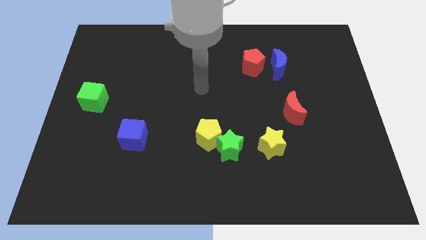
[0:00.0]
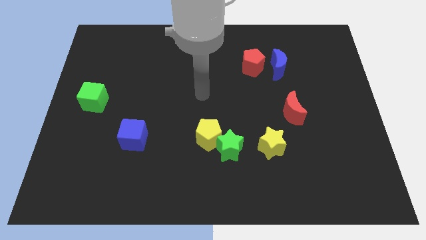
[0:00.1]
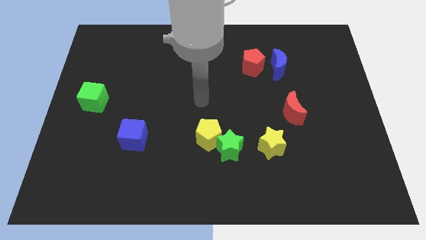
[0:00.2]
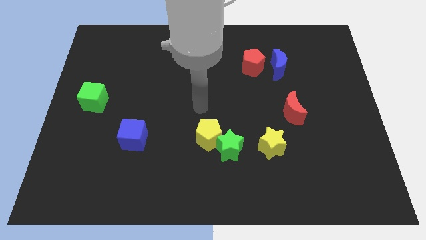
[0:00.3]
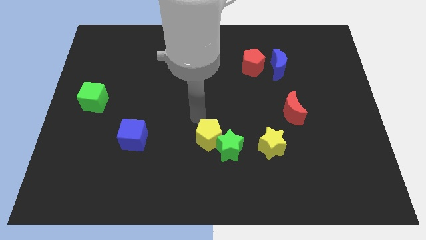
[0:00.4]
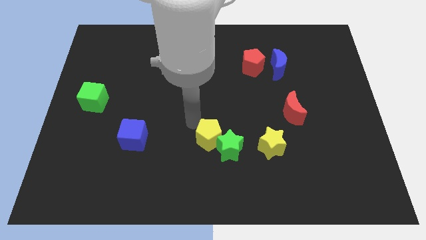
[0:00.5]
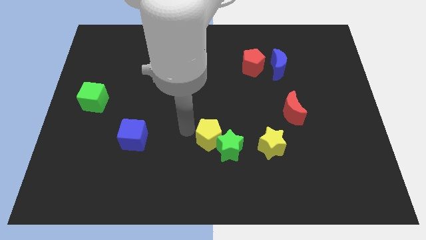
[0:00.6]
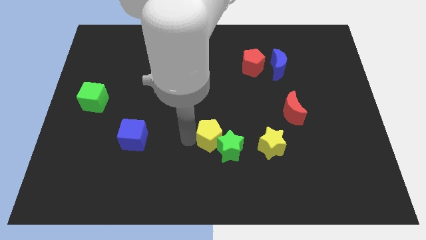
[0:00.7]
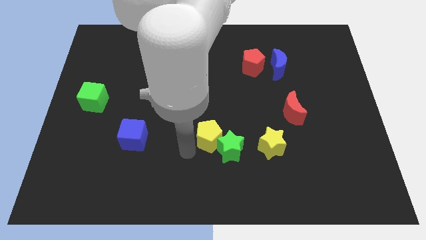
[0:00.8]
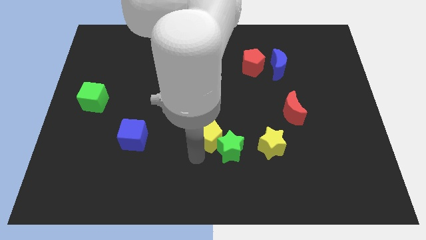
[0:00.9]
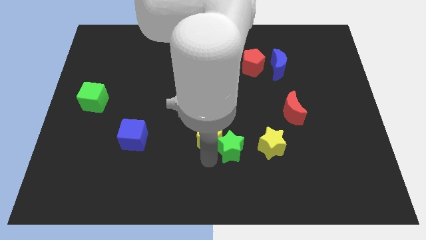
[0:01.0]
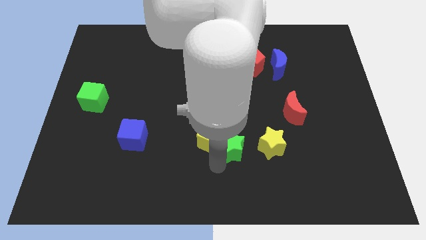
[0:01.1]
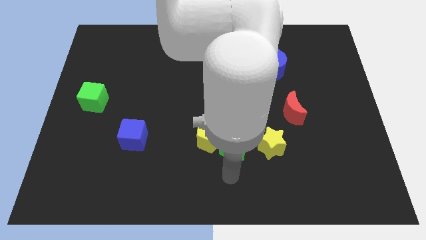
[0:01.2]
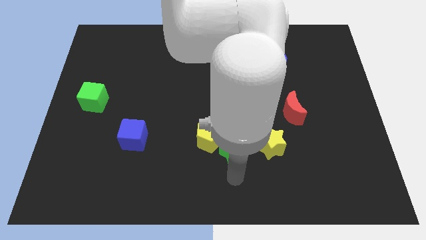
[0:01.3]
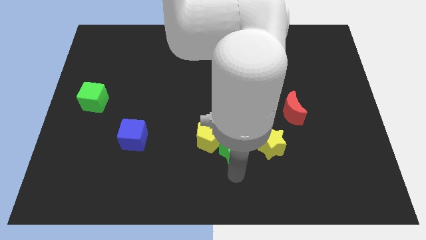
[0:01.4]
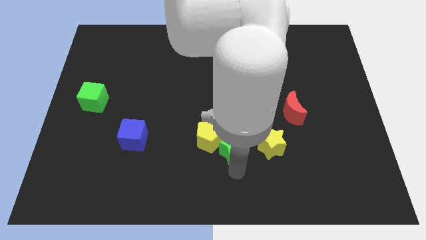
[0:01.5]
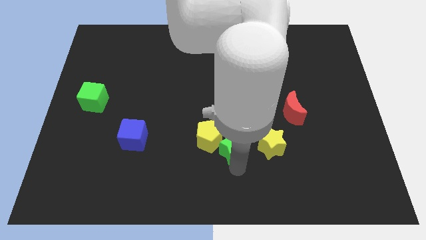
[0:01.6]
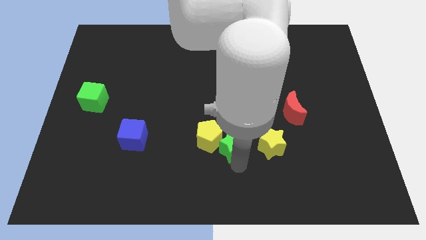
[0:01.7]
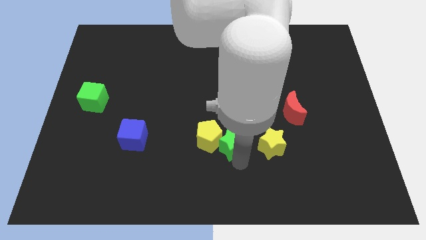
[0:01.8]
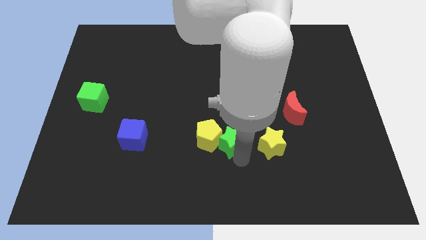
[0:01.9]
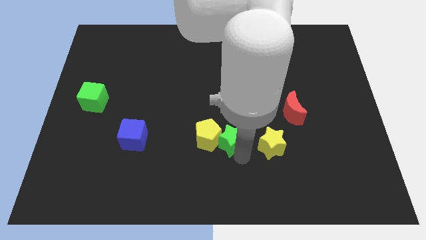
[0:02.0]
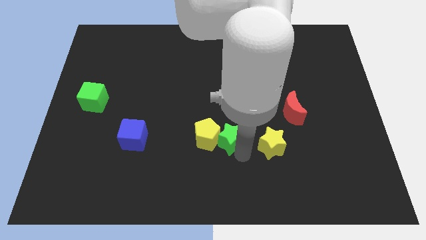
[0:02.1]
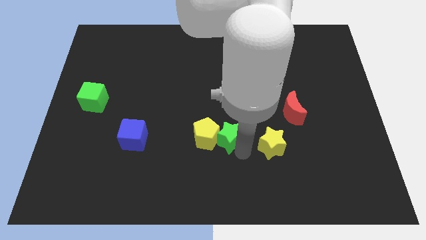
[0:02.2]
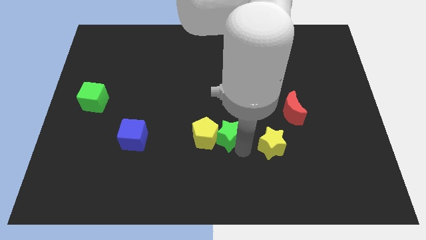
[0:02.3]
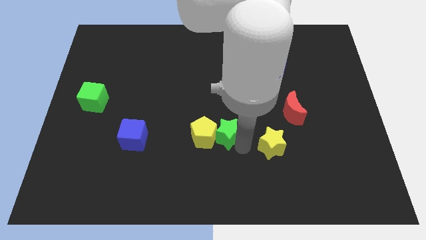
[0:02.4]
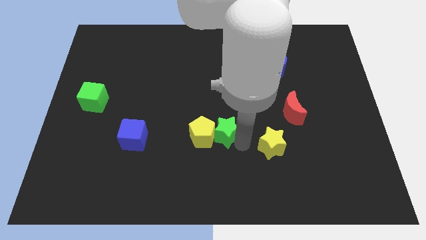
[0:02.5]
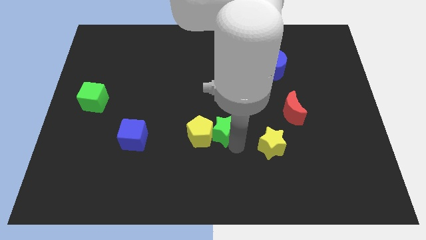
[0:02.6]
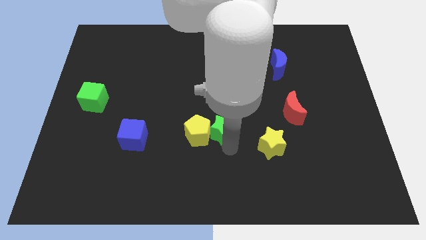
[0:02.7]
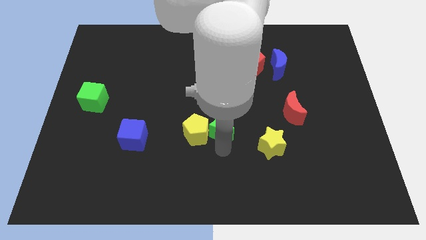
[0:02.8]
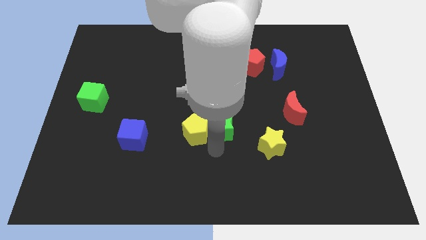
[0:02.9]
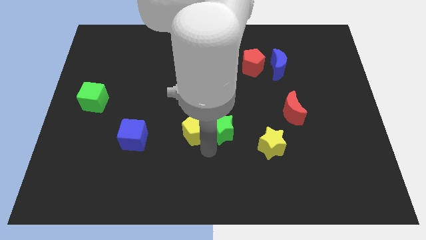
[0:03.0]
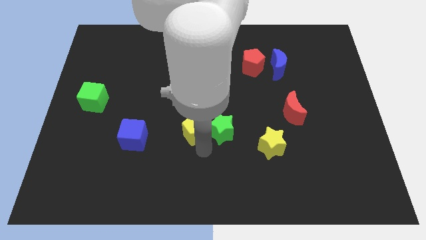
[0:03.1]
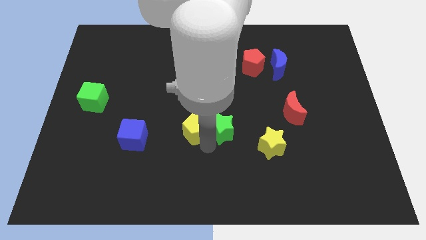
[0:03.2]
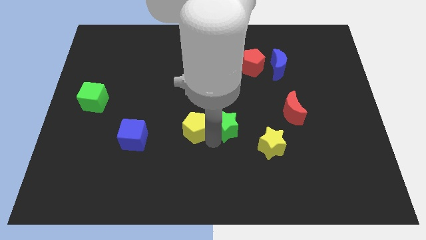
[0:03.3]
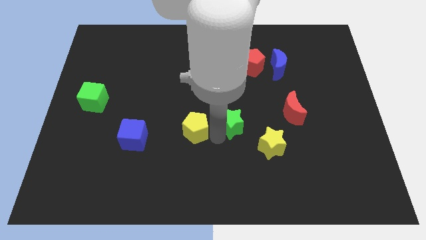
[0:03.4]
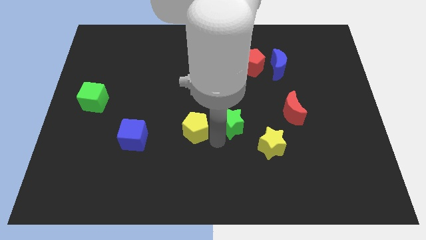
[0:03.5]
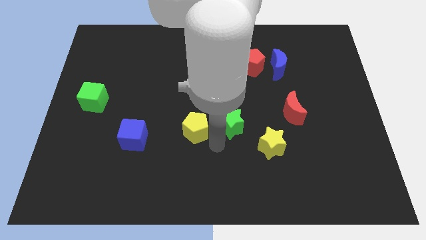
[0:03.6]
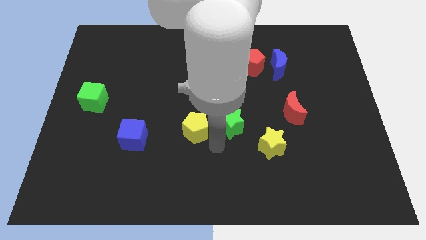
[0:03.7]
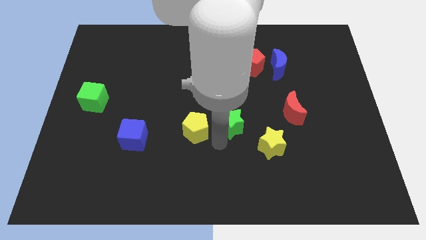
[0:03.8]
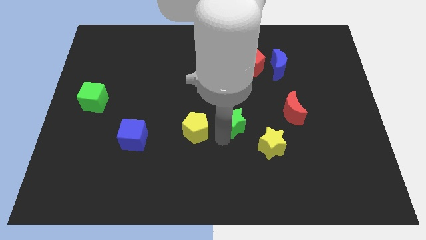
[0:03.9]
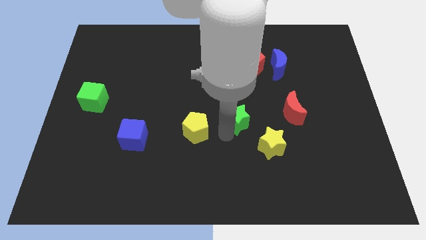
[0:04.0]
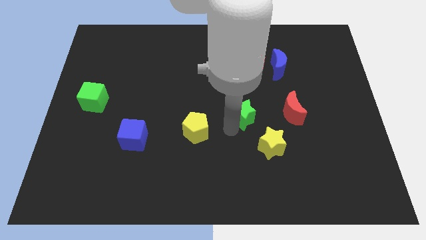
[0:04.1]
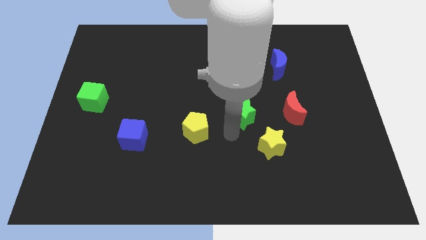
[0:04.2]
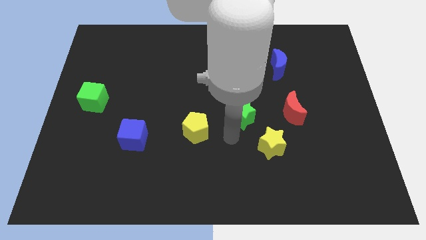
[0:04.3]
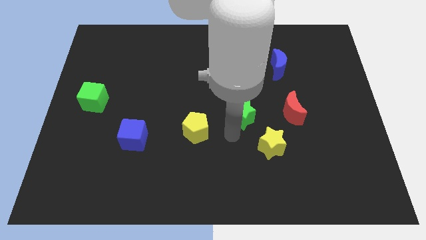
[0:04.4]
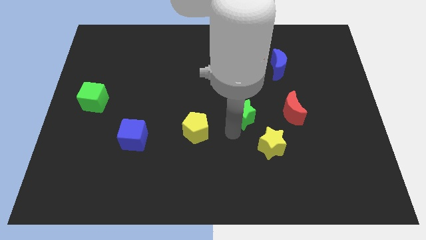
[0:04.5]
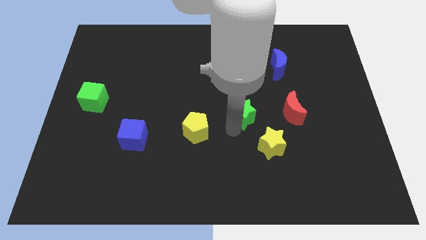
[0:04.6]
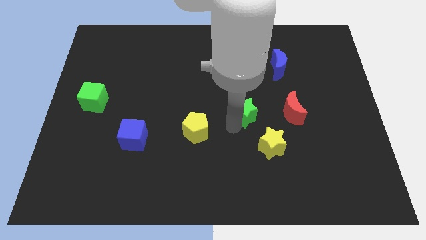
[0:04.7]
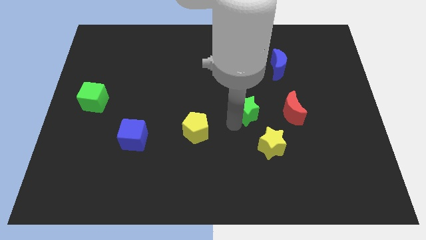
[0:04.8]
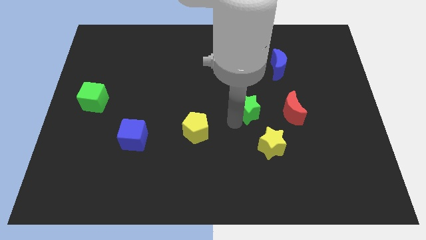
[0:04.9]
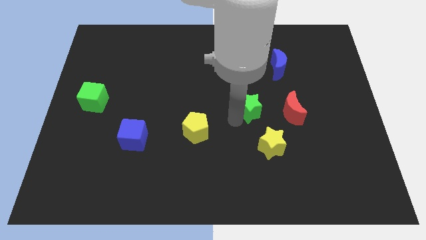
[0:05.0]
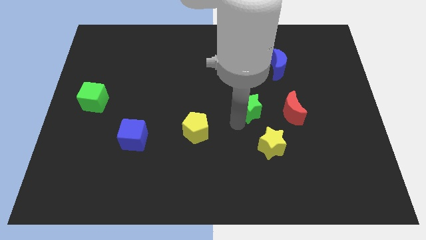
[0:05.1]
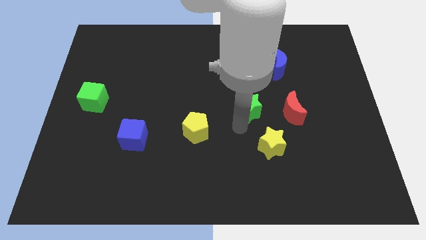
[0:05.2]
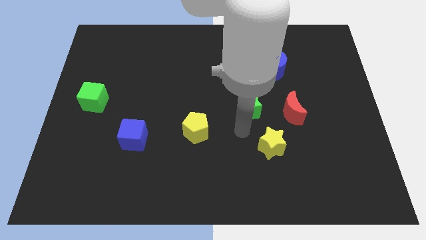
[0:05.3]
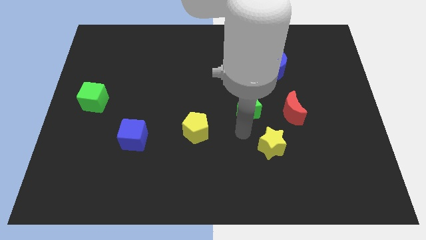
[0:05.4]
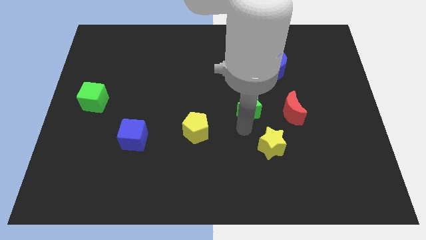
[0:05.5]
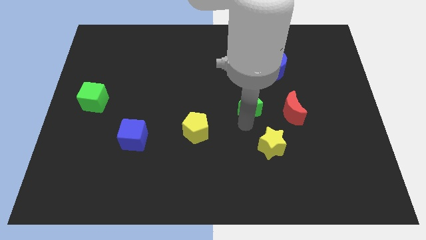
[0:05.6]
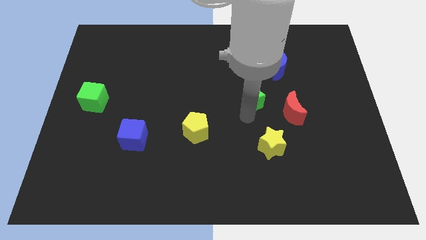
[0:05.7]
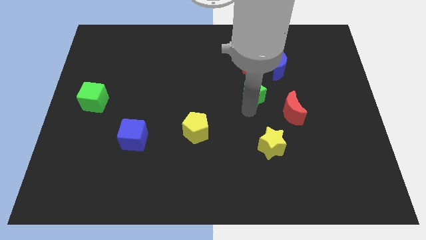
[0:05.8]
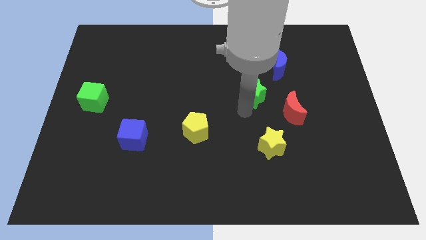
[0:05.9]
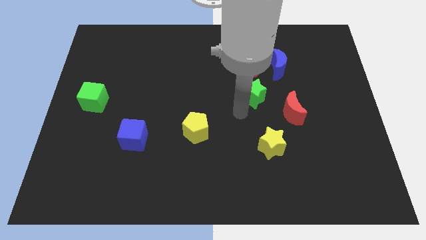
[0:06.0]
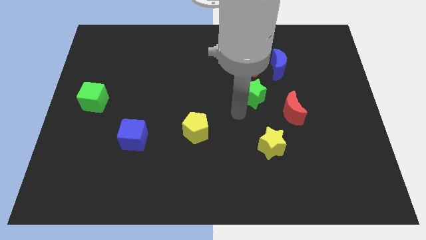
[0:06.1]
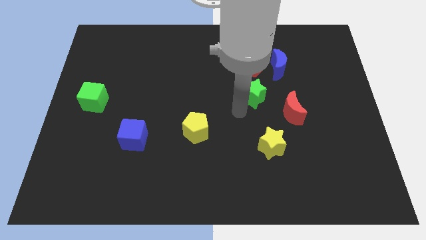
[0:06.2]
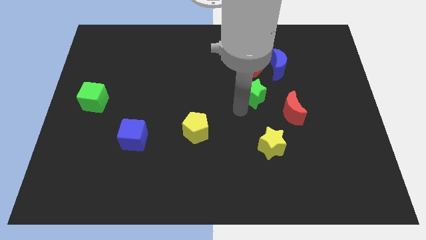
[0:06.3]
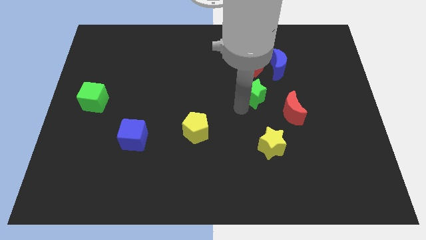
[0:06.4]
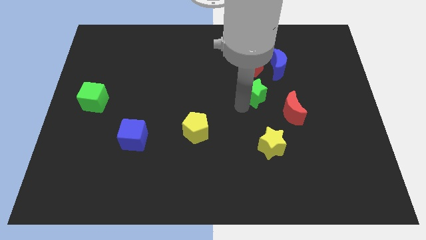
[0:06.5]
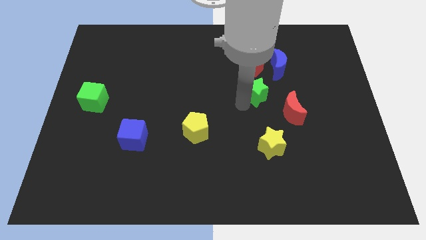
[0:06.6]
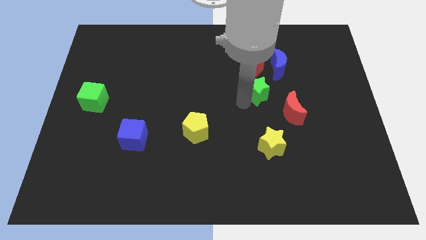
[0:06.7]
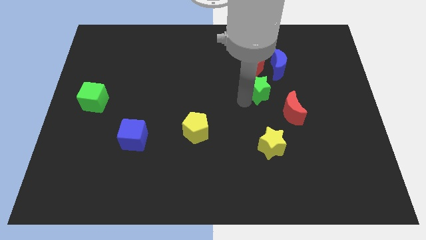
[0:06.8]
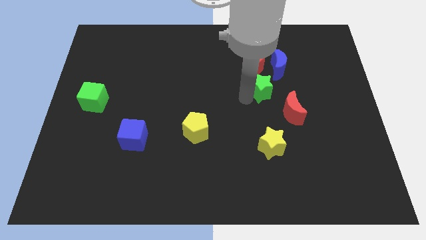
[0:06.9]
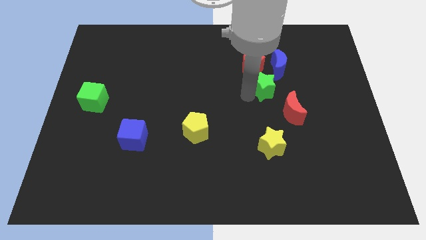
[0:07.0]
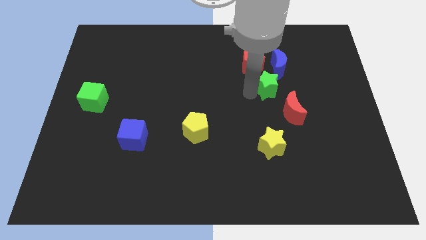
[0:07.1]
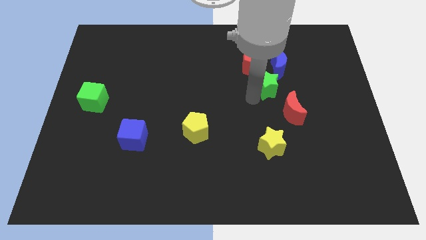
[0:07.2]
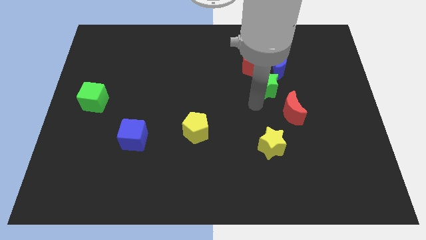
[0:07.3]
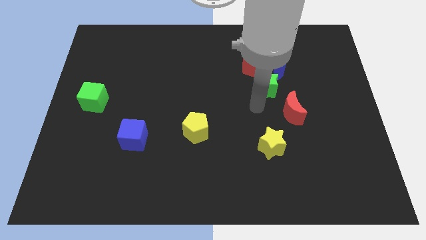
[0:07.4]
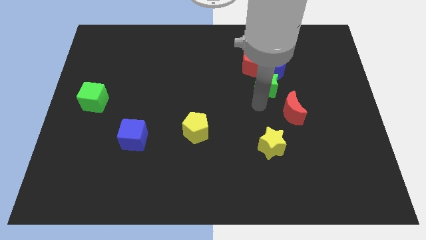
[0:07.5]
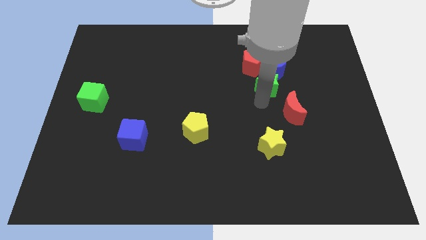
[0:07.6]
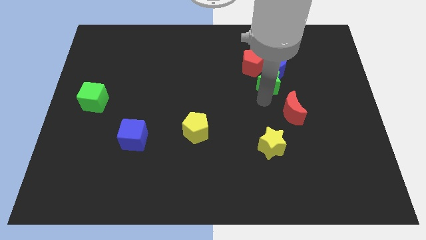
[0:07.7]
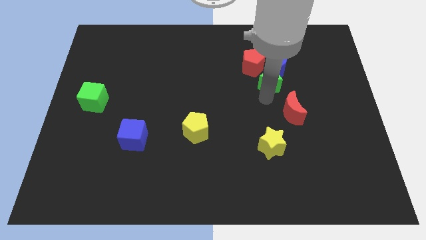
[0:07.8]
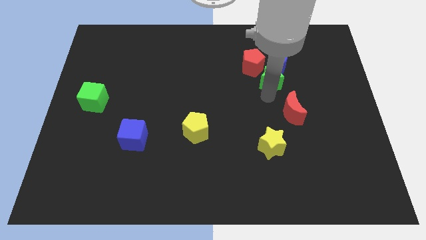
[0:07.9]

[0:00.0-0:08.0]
slide the green star towards the blue moon
